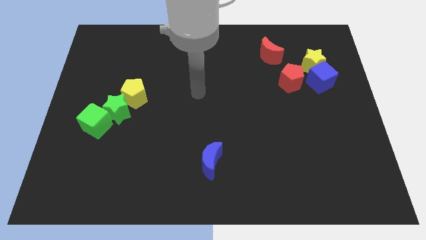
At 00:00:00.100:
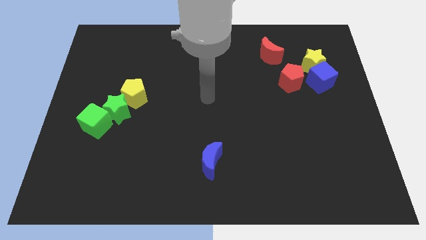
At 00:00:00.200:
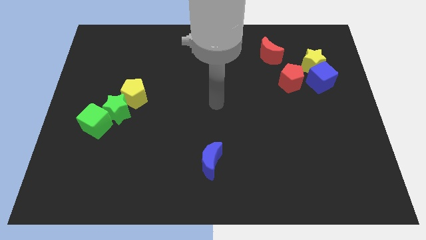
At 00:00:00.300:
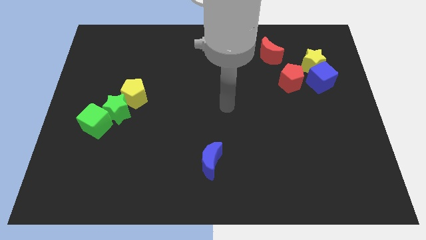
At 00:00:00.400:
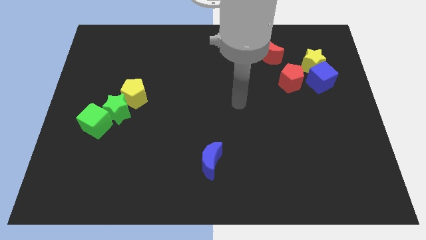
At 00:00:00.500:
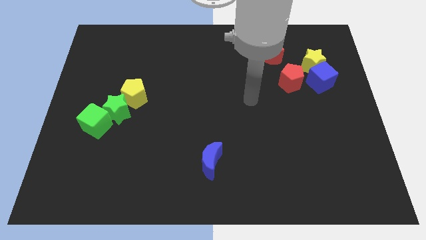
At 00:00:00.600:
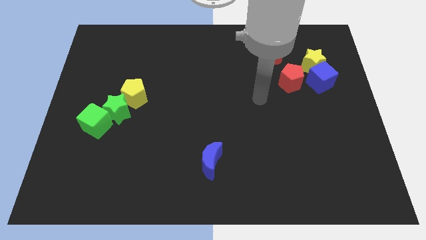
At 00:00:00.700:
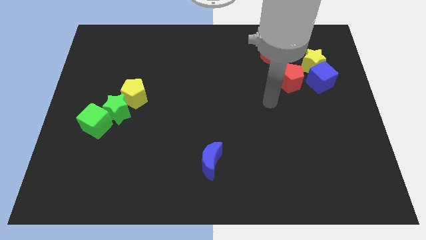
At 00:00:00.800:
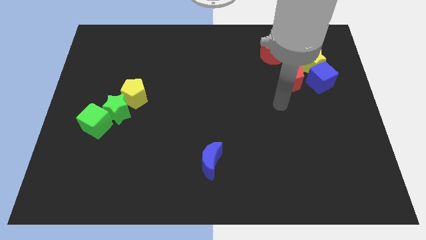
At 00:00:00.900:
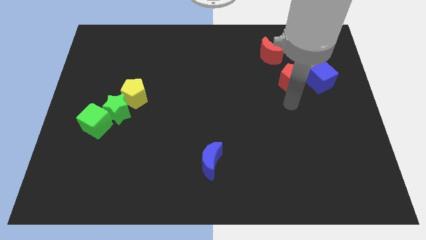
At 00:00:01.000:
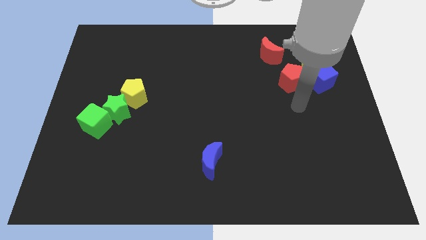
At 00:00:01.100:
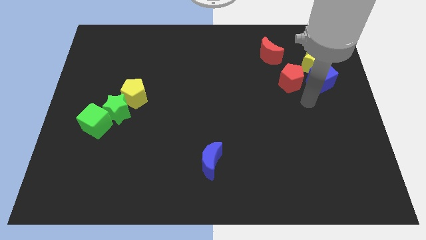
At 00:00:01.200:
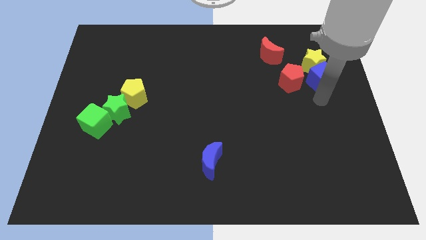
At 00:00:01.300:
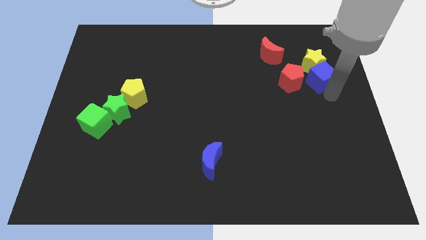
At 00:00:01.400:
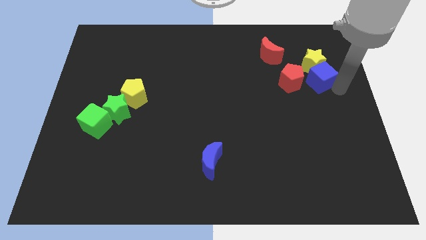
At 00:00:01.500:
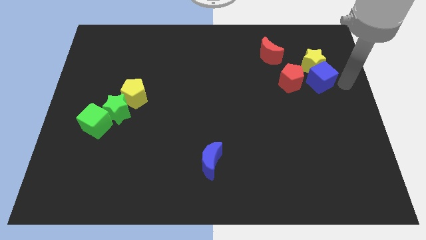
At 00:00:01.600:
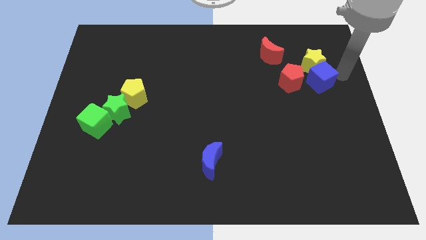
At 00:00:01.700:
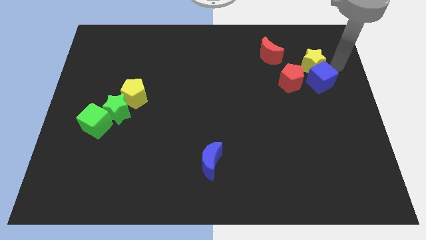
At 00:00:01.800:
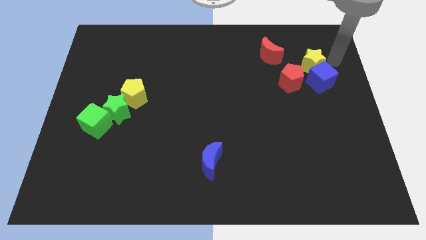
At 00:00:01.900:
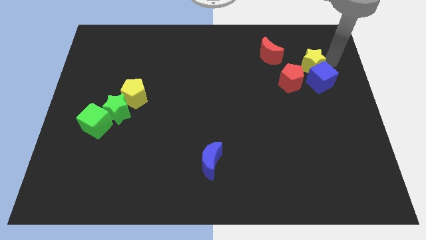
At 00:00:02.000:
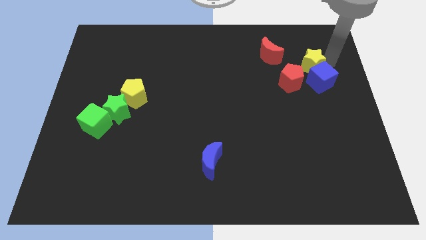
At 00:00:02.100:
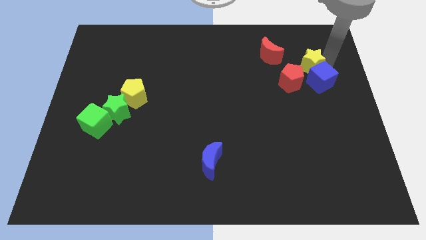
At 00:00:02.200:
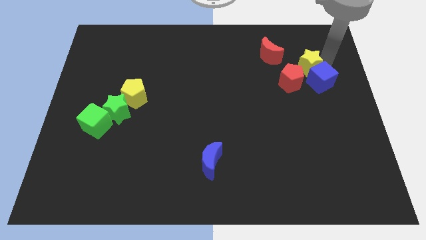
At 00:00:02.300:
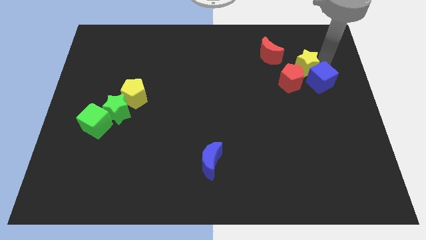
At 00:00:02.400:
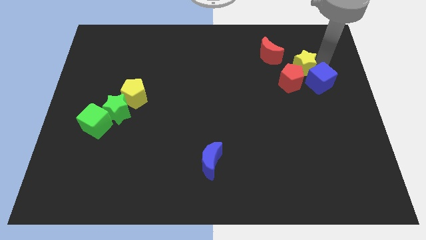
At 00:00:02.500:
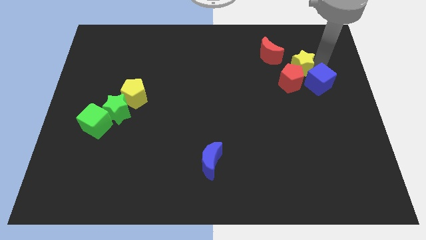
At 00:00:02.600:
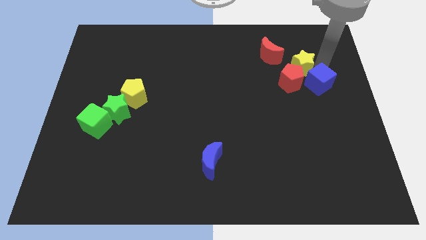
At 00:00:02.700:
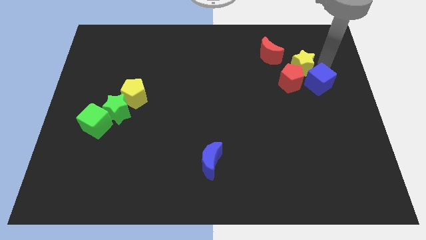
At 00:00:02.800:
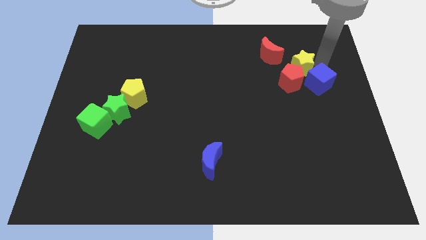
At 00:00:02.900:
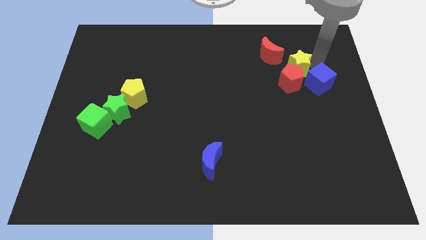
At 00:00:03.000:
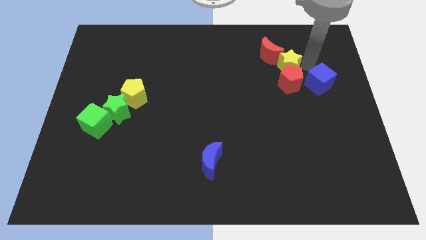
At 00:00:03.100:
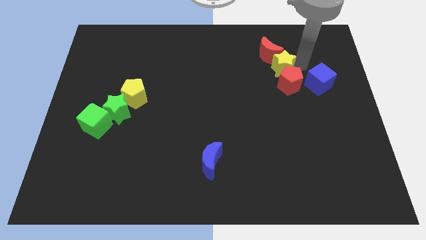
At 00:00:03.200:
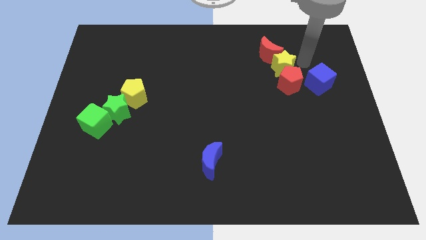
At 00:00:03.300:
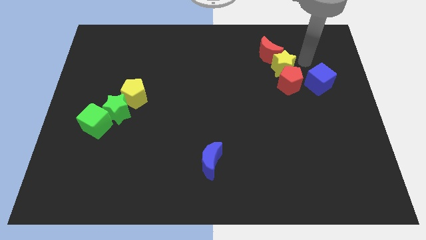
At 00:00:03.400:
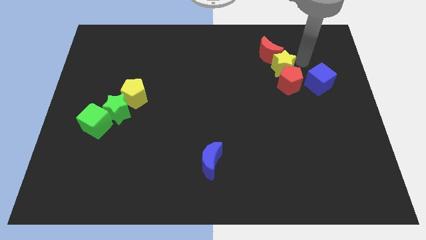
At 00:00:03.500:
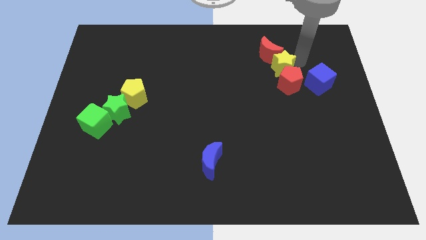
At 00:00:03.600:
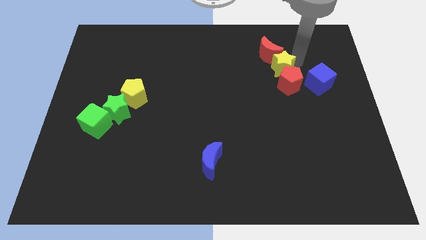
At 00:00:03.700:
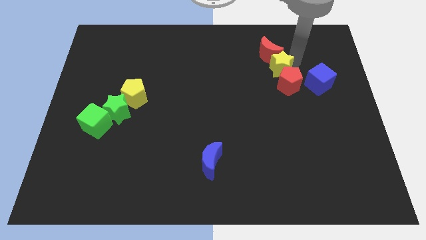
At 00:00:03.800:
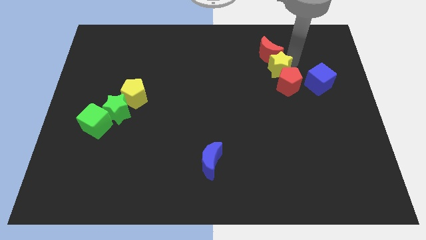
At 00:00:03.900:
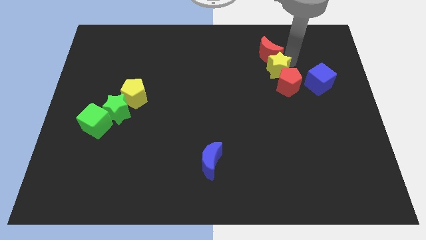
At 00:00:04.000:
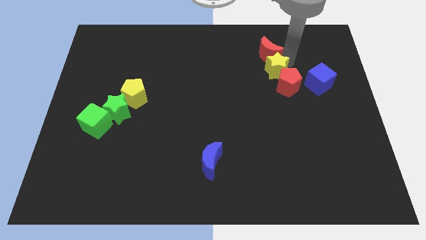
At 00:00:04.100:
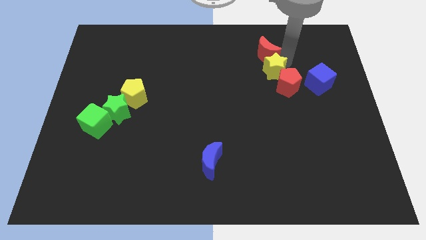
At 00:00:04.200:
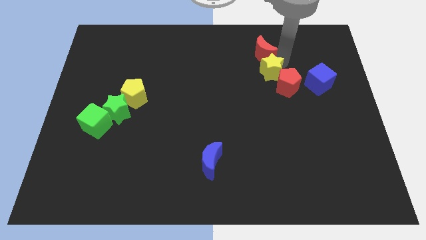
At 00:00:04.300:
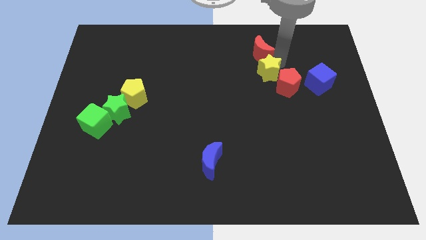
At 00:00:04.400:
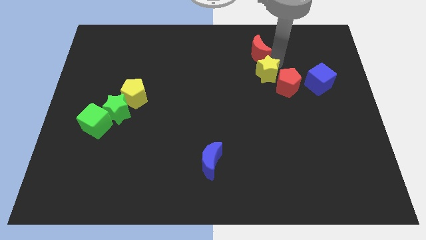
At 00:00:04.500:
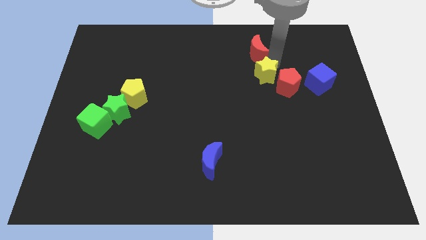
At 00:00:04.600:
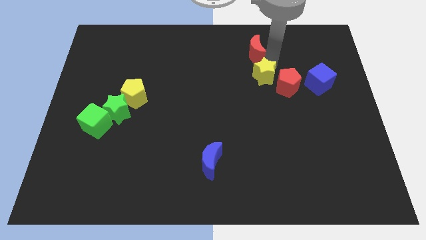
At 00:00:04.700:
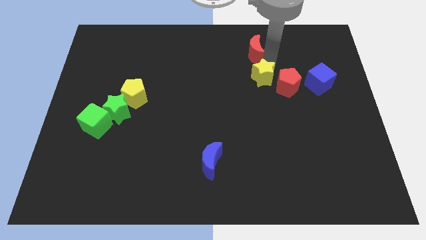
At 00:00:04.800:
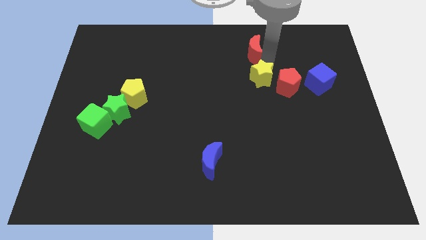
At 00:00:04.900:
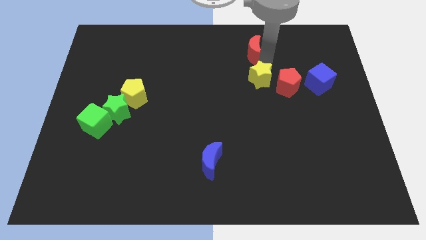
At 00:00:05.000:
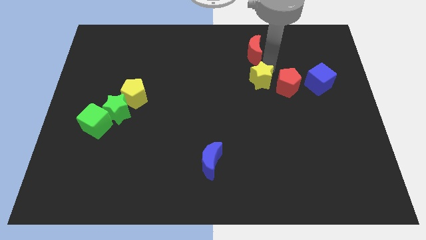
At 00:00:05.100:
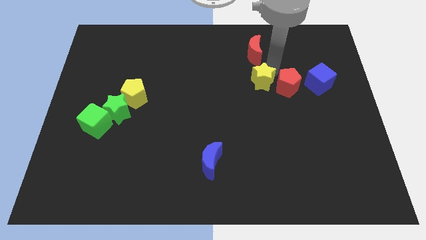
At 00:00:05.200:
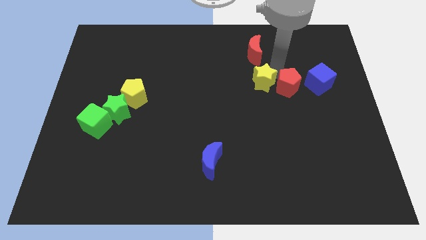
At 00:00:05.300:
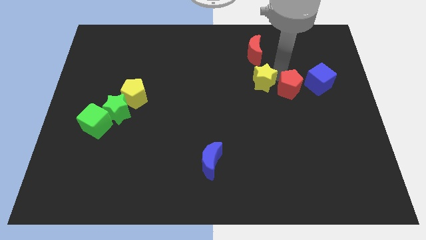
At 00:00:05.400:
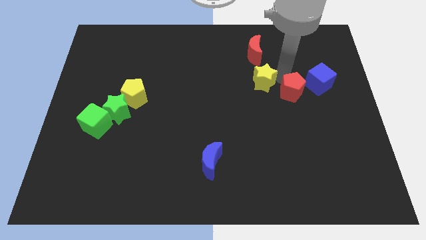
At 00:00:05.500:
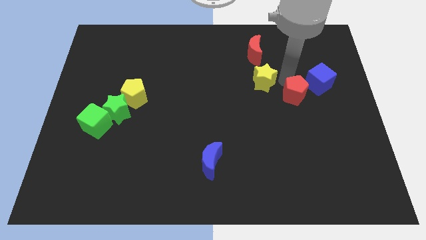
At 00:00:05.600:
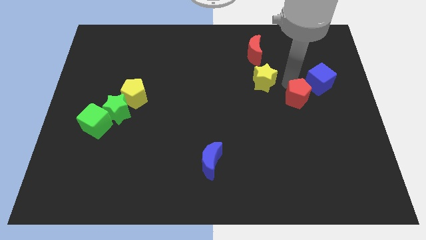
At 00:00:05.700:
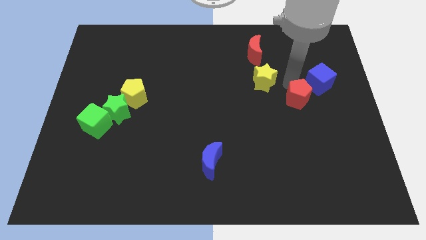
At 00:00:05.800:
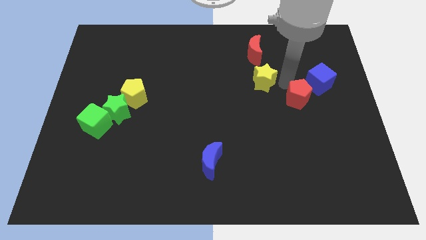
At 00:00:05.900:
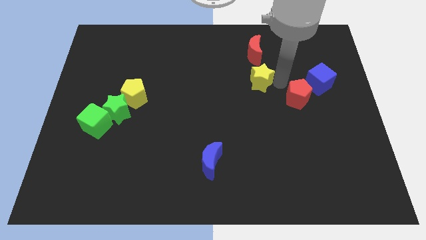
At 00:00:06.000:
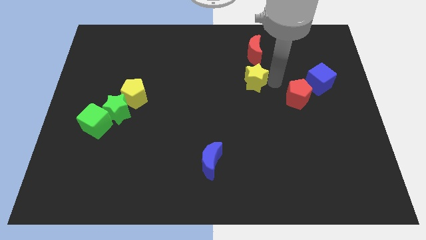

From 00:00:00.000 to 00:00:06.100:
put the yellow star to the center

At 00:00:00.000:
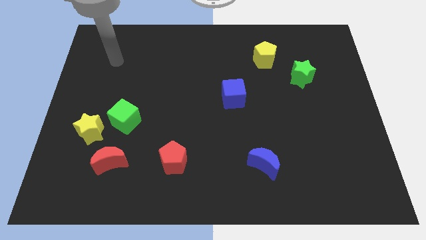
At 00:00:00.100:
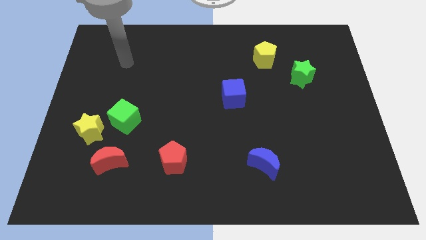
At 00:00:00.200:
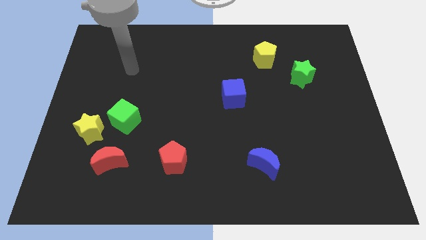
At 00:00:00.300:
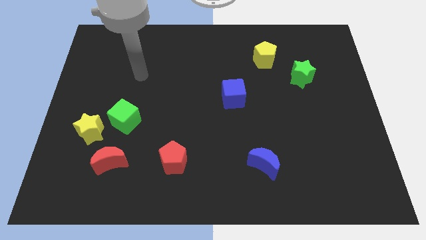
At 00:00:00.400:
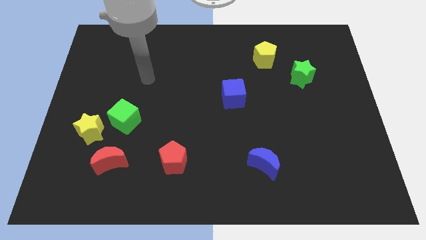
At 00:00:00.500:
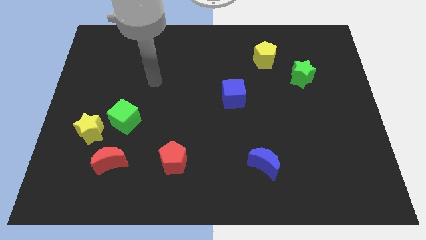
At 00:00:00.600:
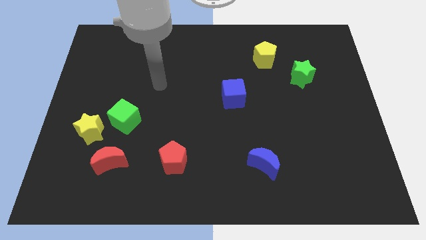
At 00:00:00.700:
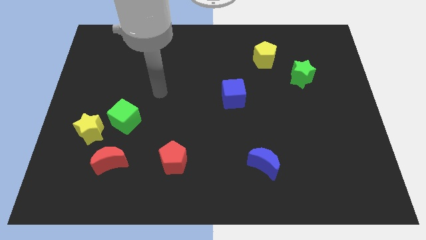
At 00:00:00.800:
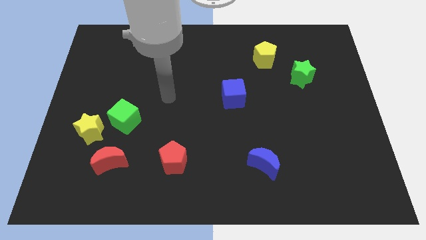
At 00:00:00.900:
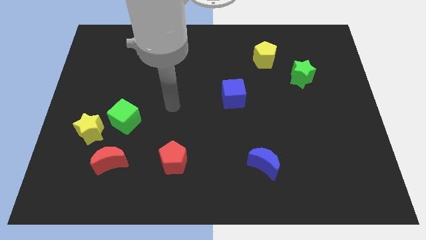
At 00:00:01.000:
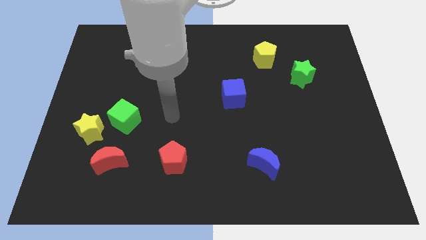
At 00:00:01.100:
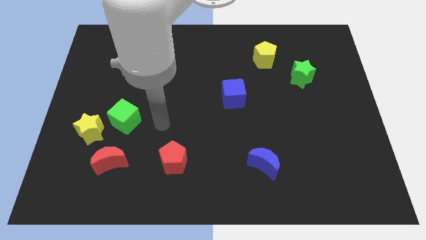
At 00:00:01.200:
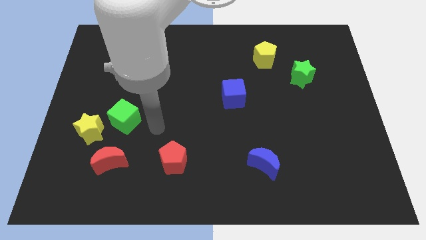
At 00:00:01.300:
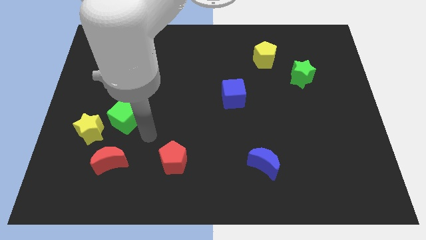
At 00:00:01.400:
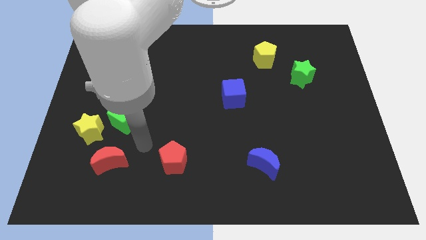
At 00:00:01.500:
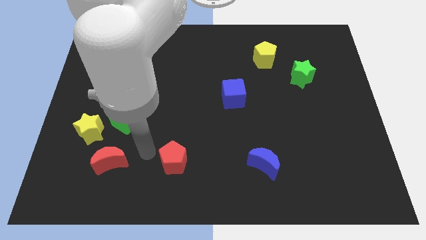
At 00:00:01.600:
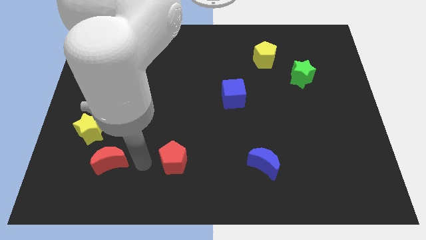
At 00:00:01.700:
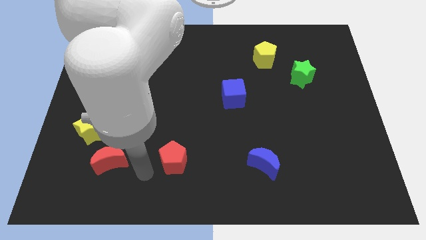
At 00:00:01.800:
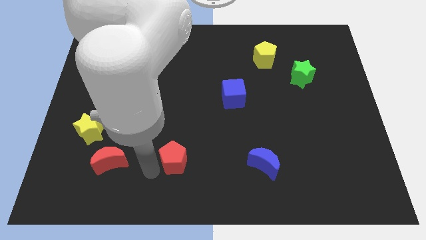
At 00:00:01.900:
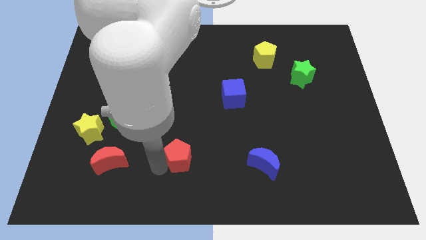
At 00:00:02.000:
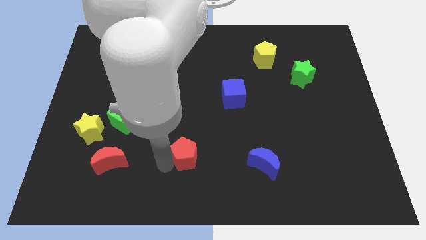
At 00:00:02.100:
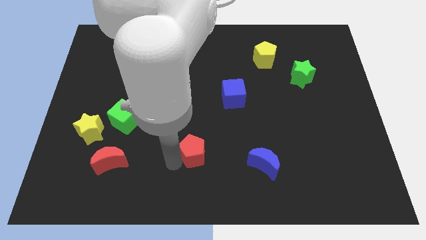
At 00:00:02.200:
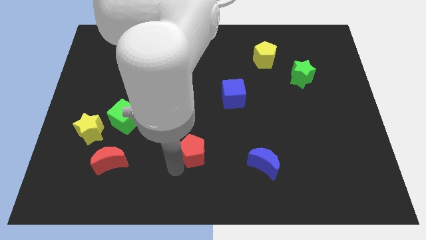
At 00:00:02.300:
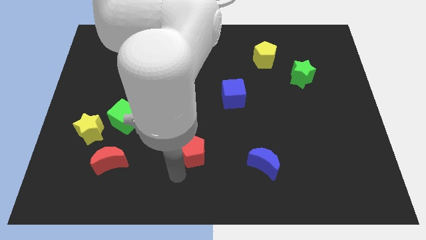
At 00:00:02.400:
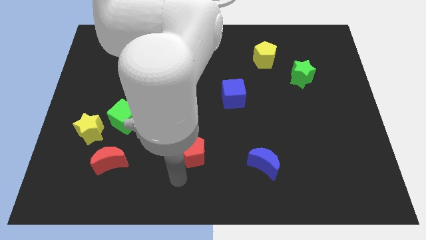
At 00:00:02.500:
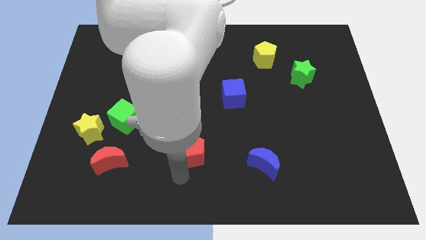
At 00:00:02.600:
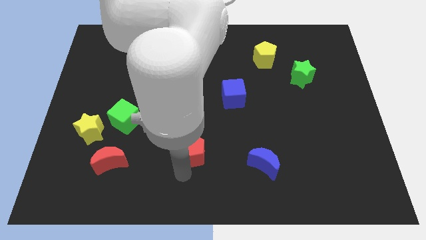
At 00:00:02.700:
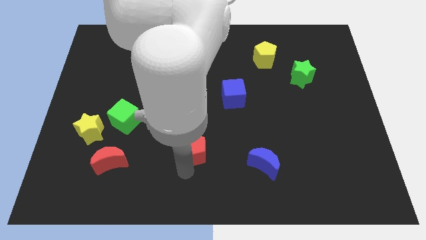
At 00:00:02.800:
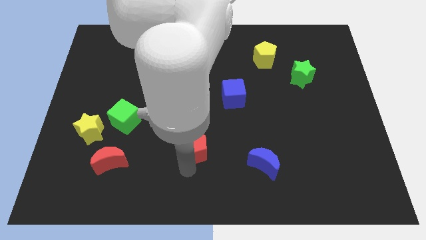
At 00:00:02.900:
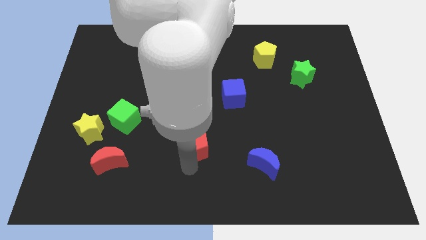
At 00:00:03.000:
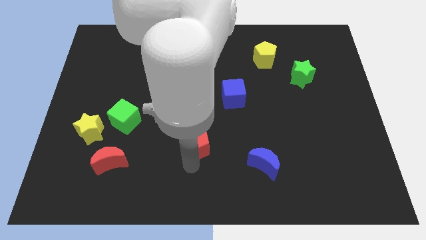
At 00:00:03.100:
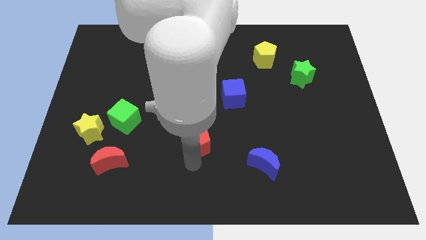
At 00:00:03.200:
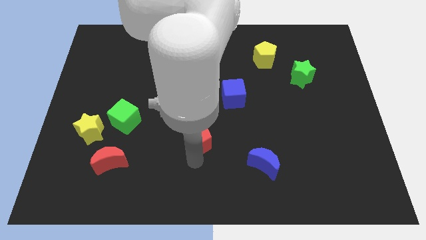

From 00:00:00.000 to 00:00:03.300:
slide the red pentagon to the middle
